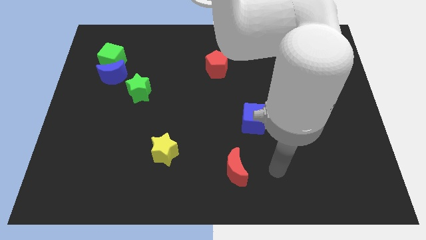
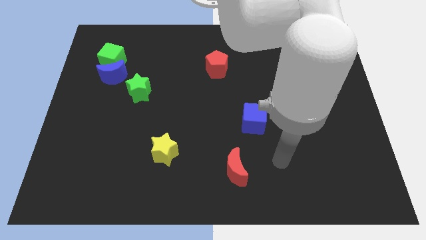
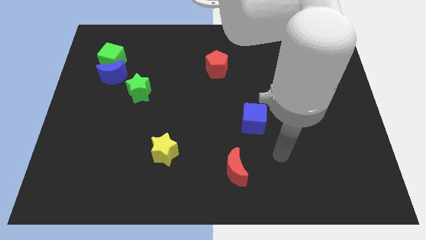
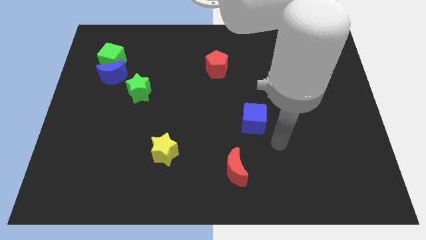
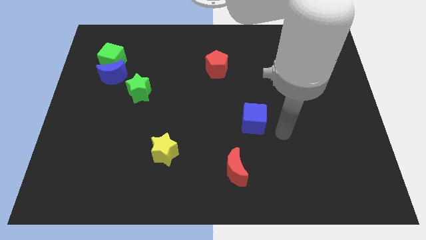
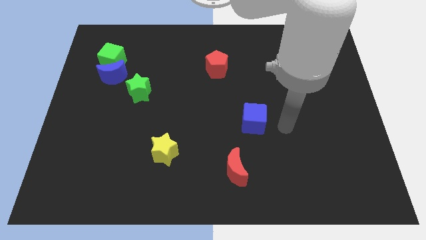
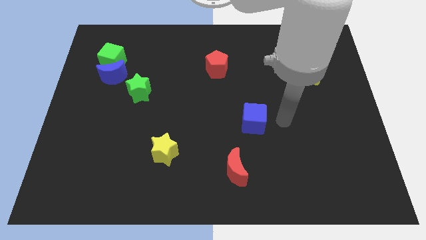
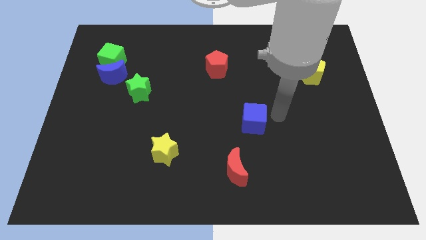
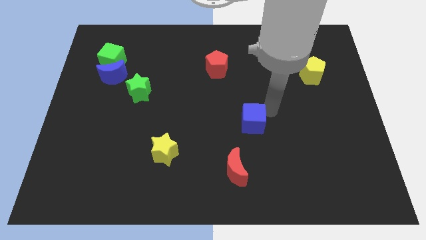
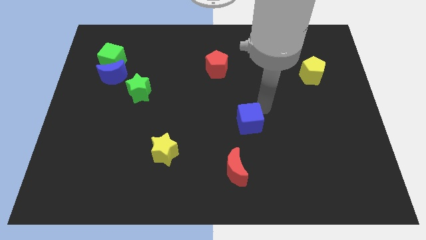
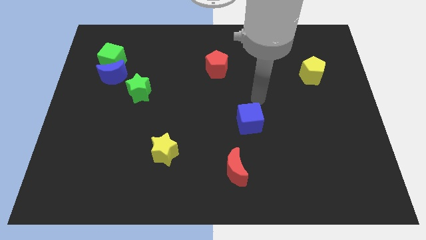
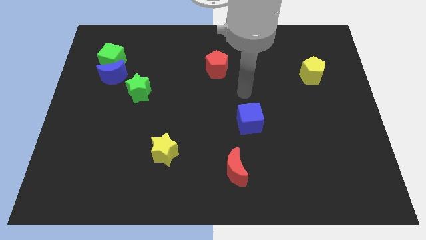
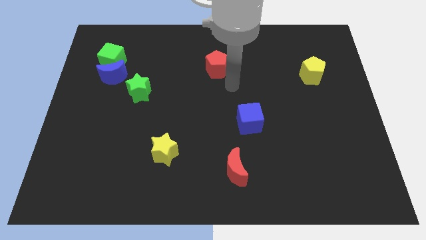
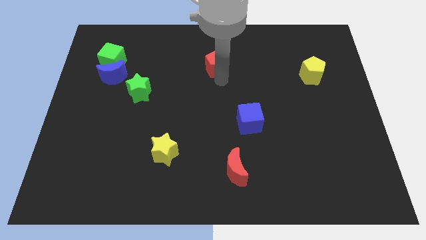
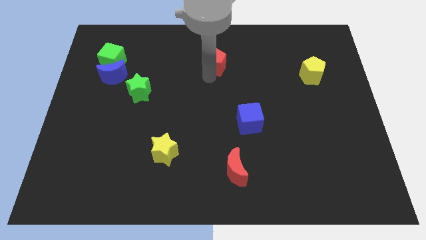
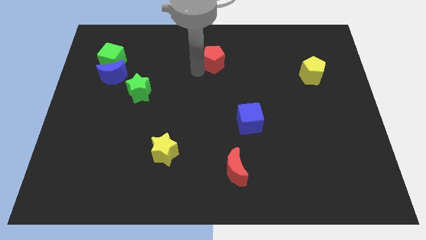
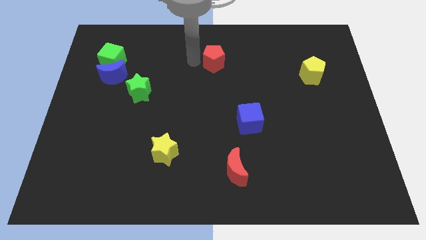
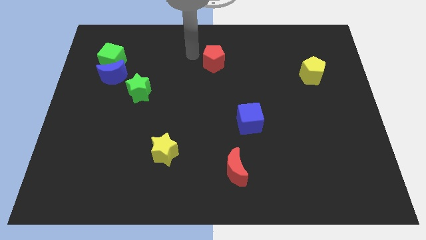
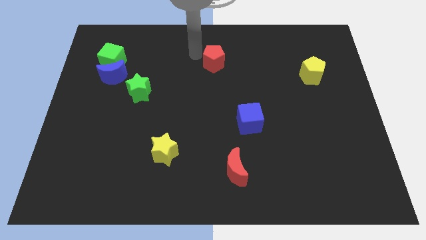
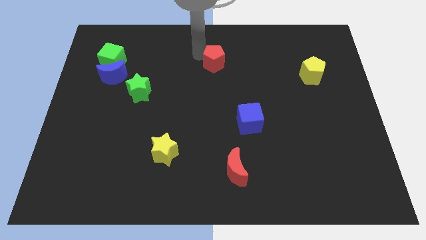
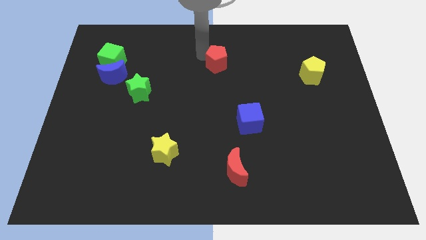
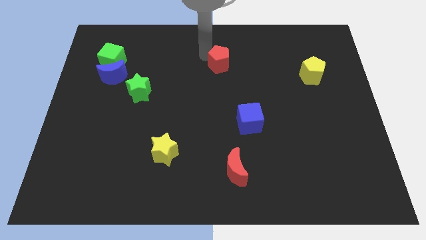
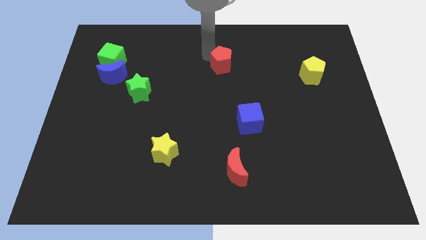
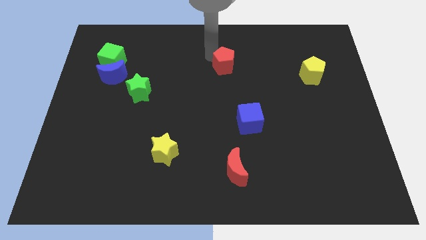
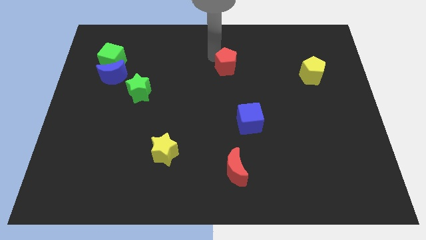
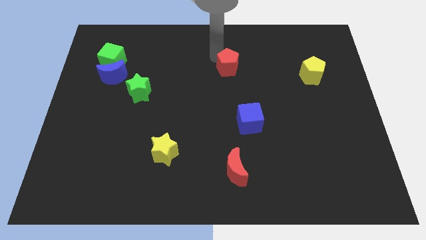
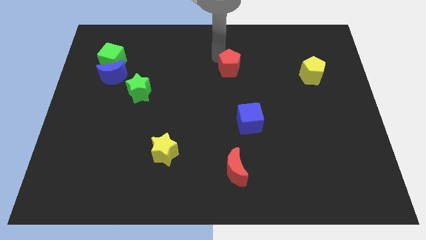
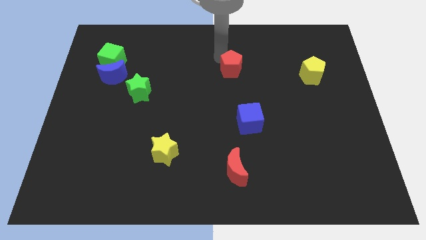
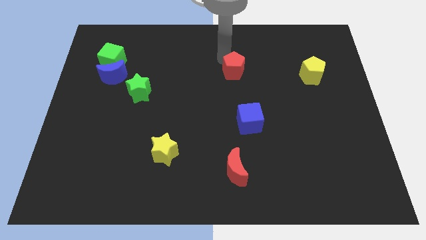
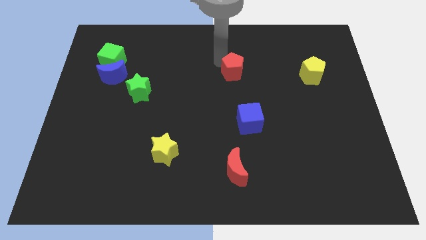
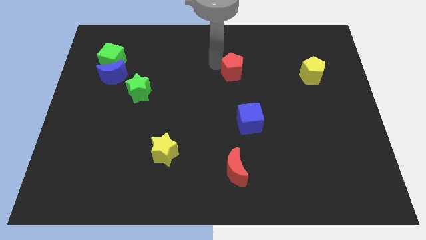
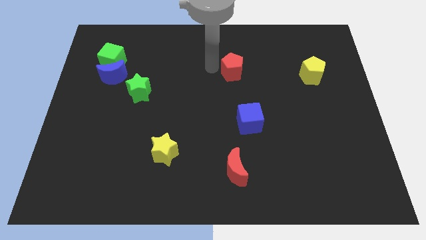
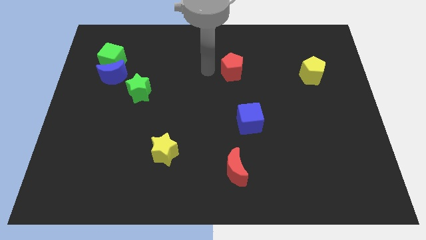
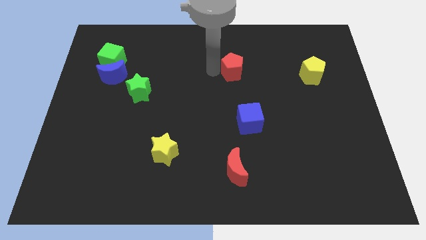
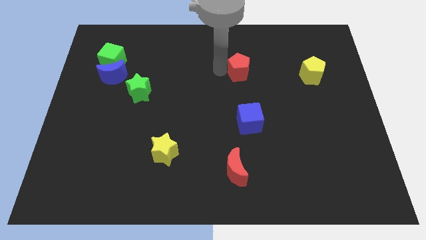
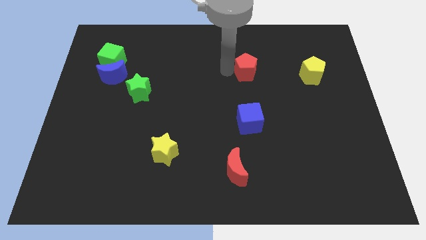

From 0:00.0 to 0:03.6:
move the red pentagon to the right a bit

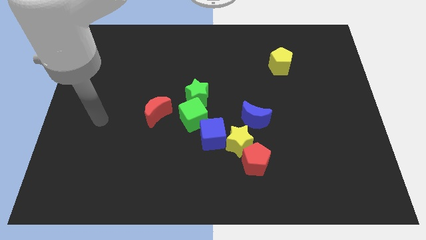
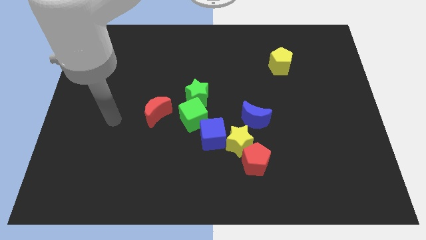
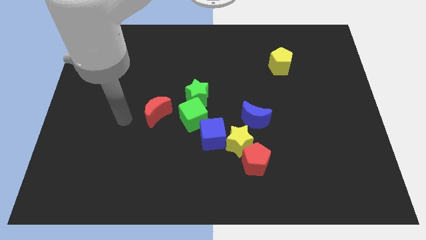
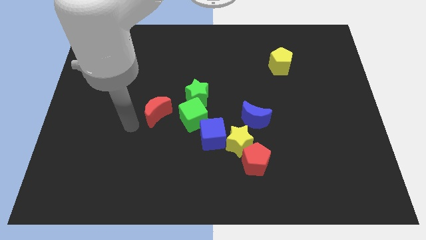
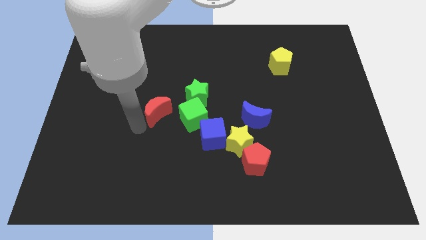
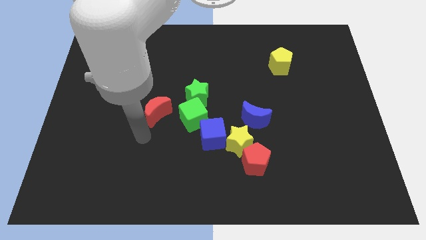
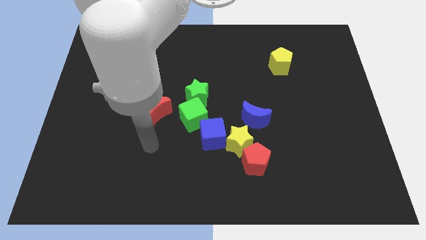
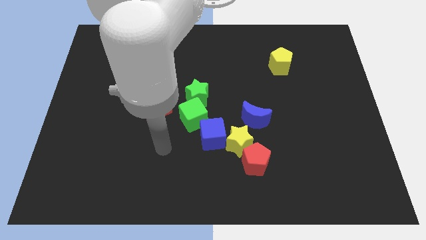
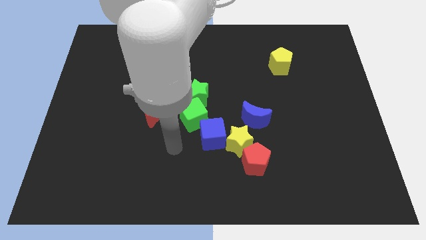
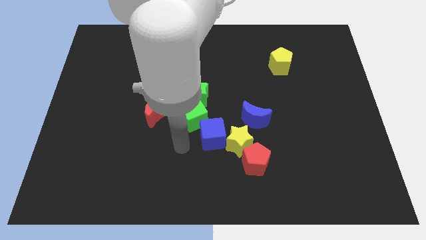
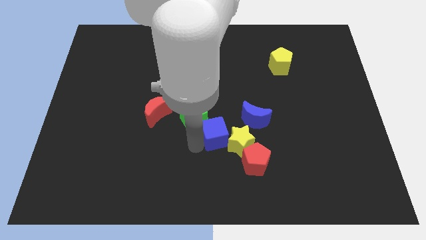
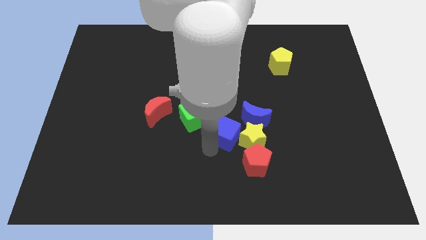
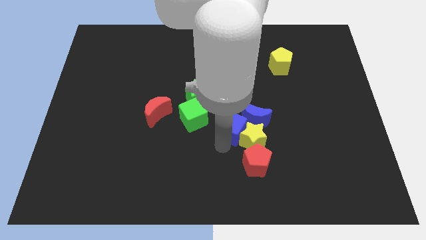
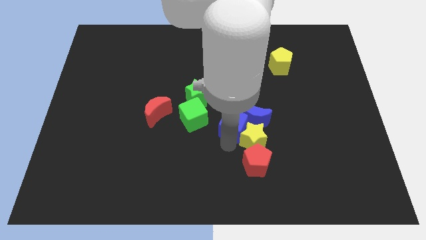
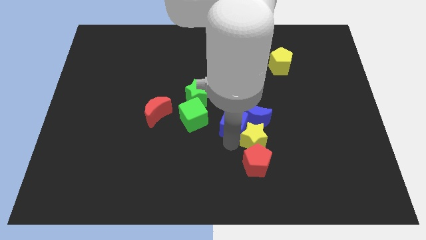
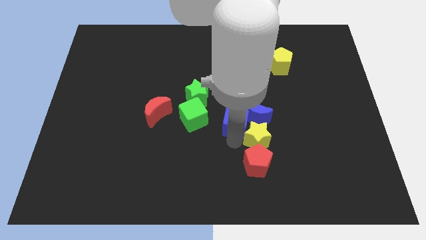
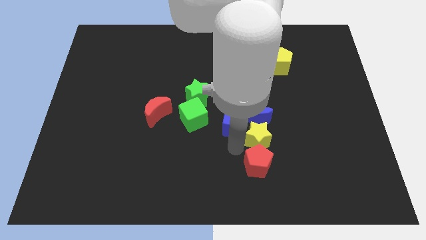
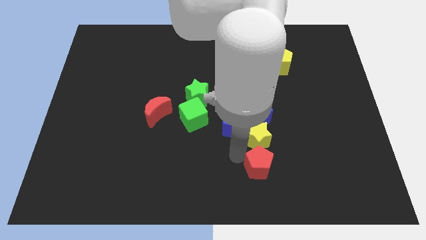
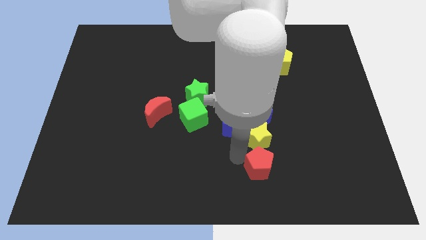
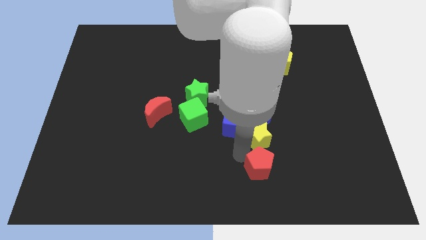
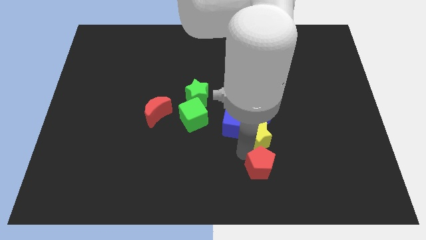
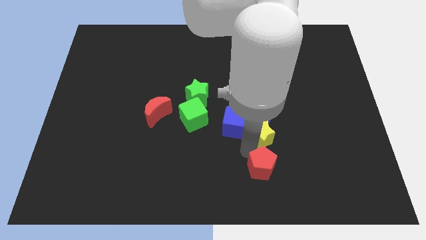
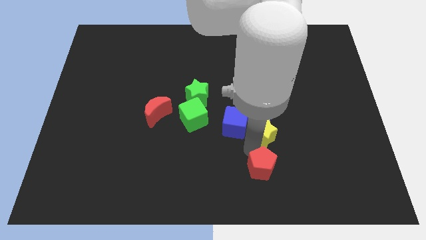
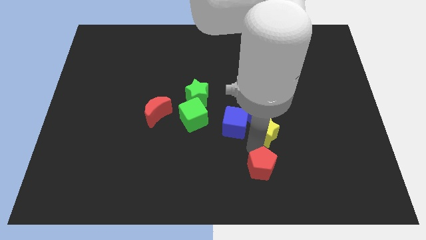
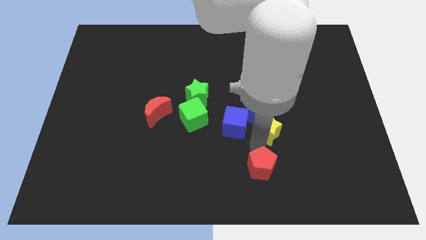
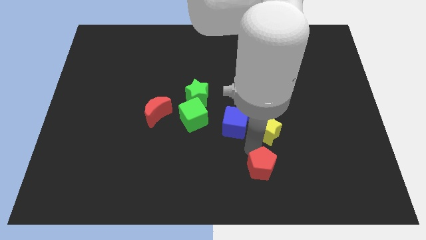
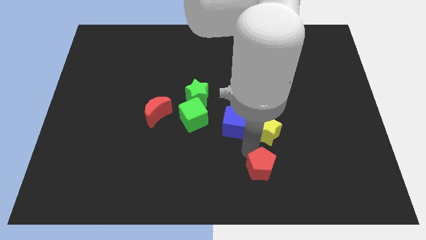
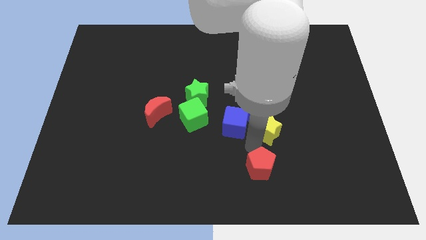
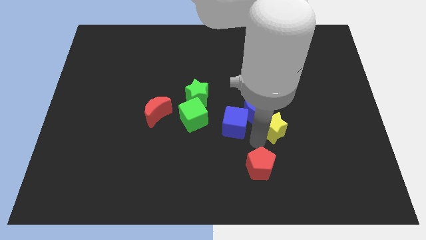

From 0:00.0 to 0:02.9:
slightly slide the yellow star upwards and then to the right

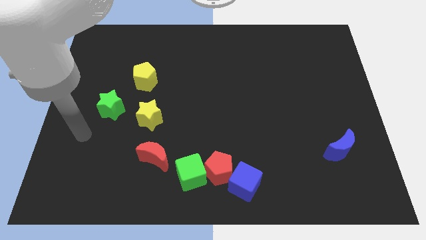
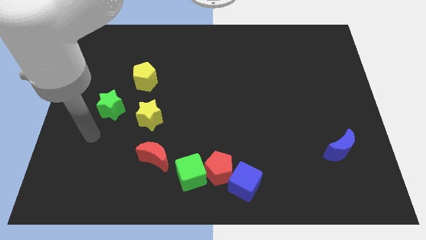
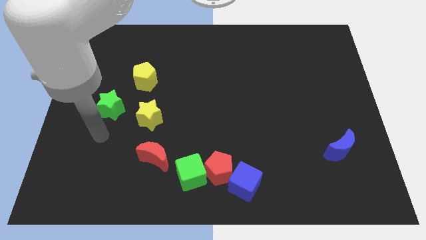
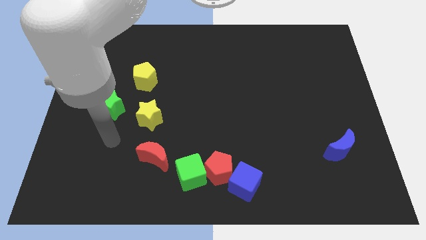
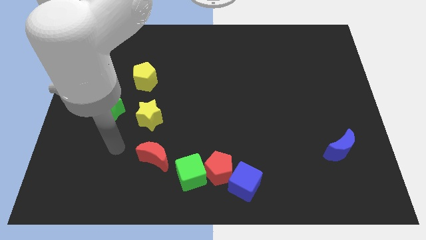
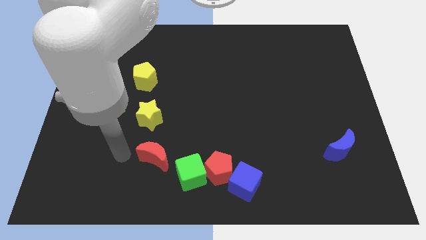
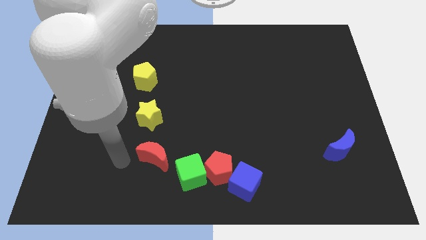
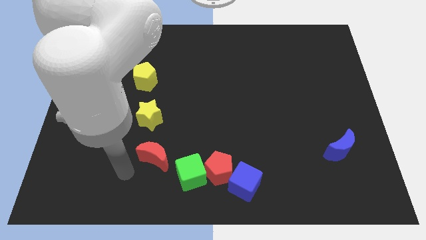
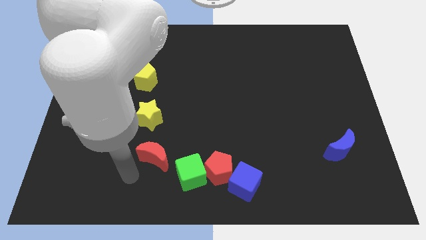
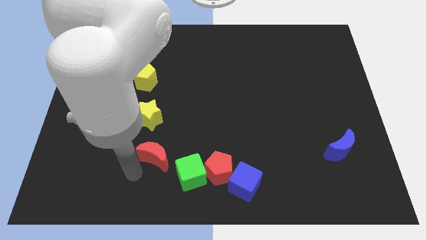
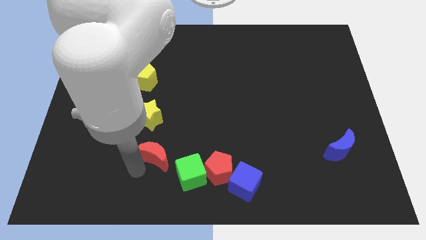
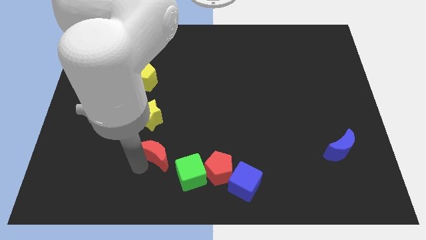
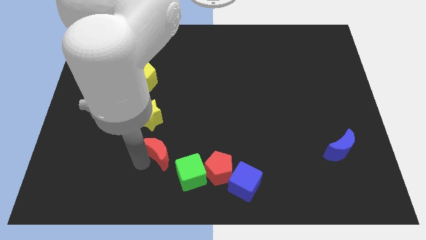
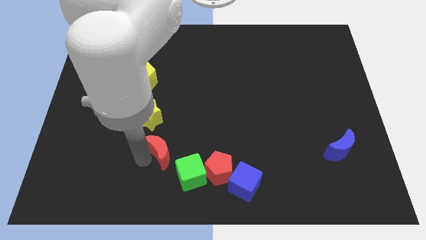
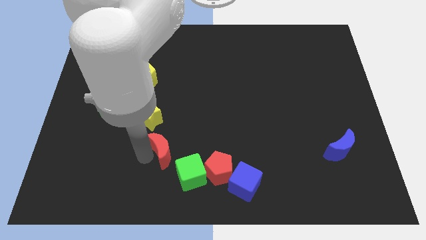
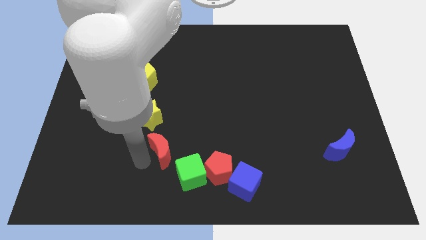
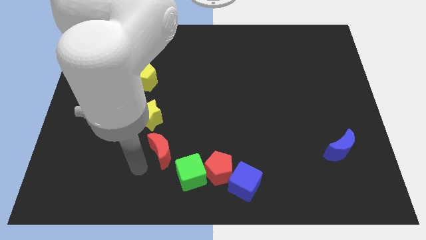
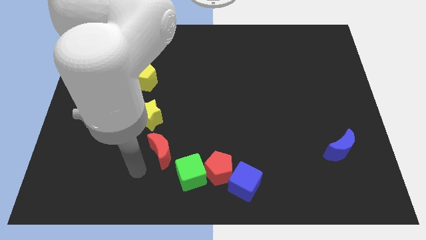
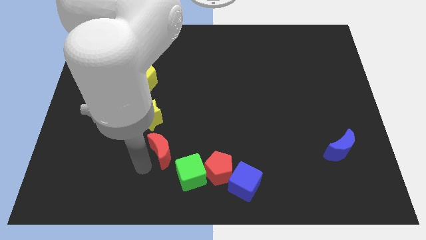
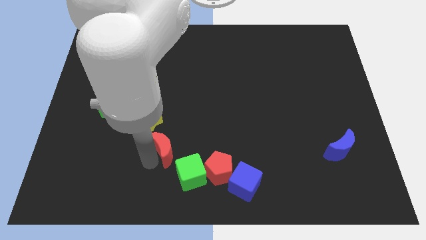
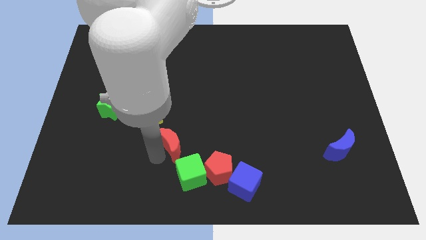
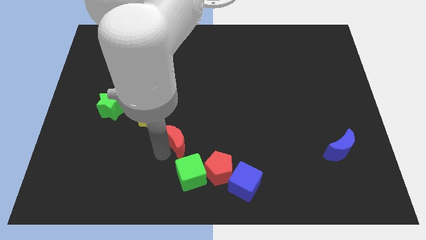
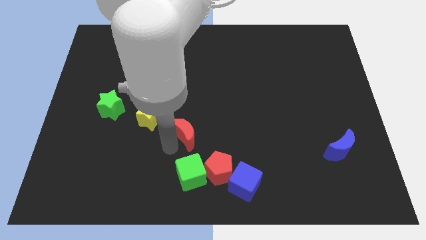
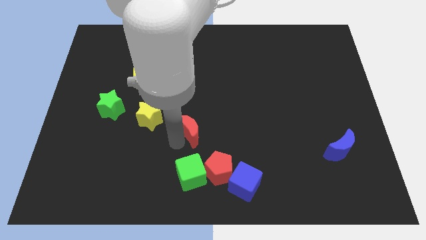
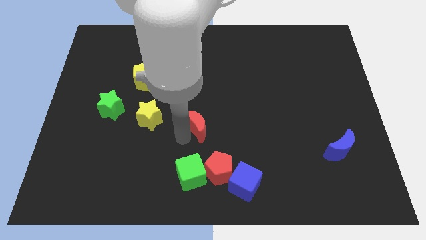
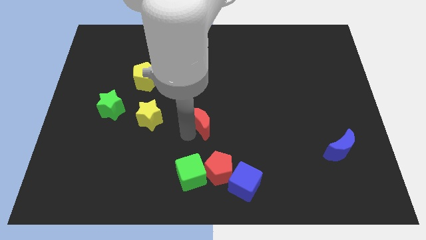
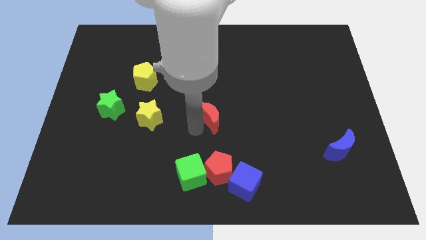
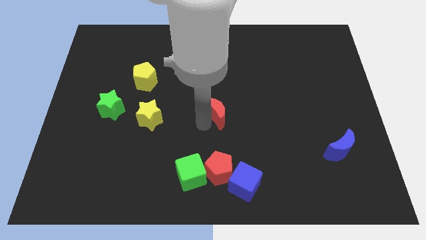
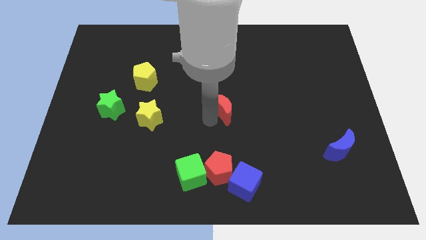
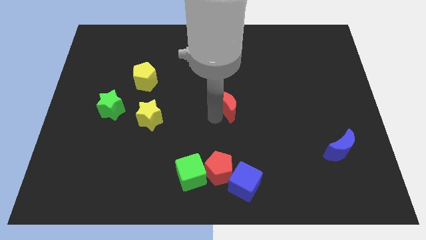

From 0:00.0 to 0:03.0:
push the red moon diagonally upwards and right
